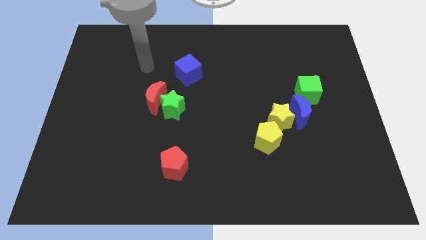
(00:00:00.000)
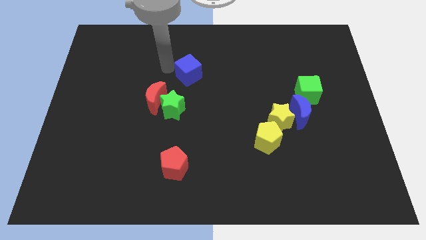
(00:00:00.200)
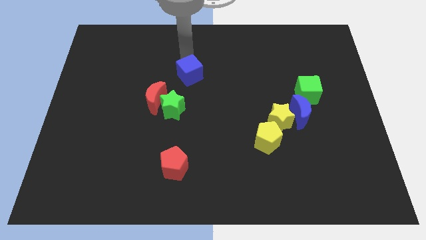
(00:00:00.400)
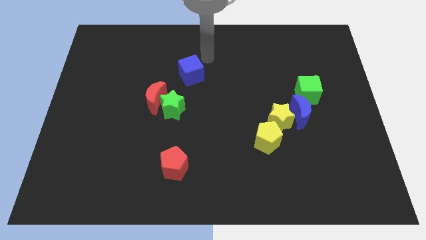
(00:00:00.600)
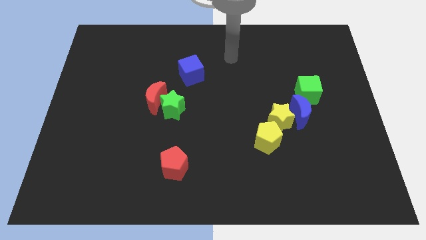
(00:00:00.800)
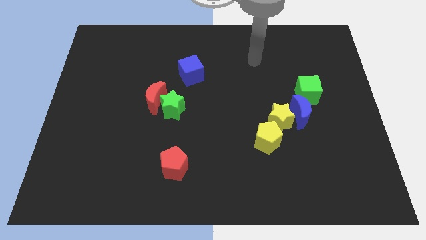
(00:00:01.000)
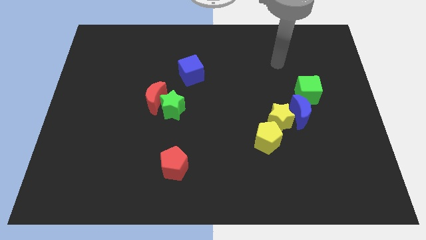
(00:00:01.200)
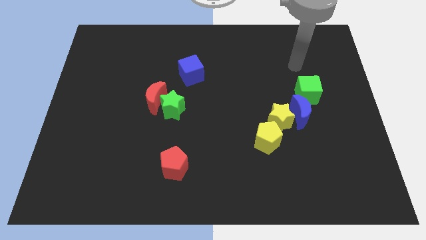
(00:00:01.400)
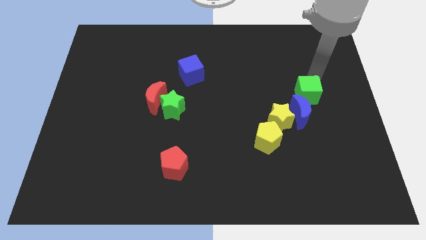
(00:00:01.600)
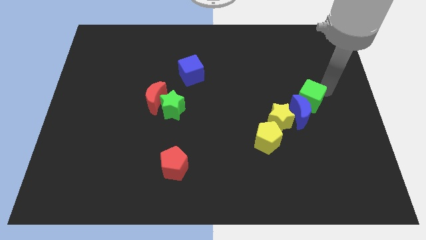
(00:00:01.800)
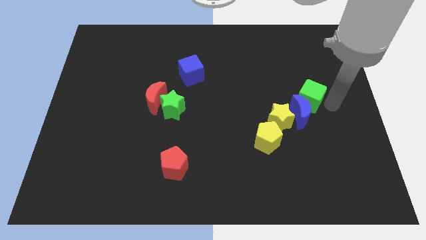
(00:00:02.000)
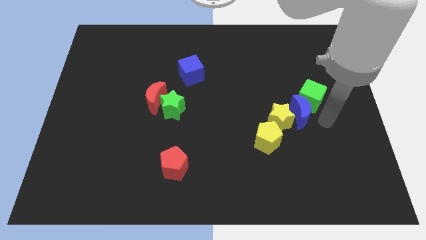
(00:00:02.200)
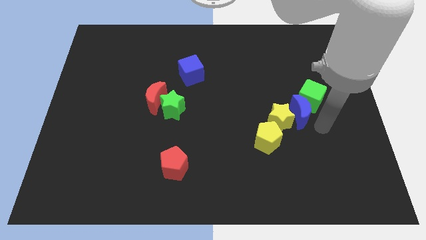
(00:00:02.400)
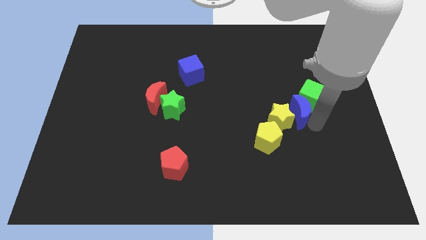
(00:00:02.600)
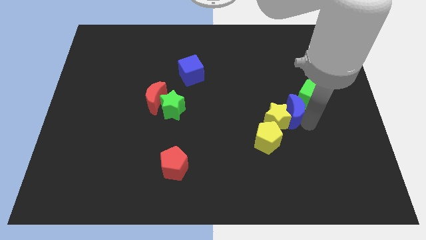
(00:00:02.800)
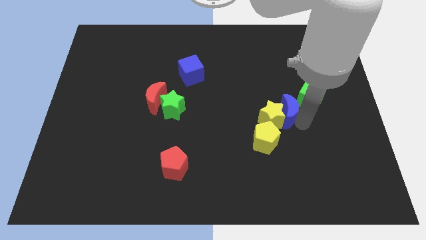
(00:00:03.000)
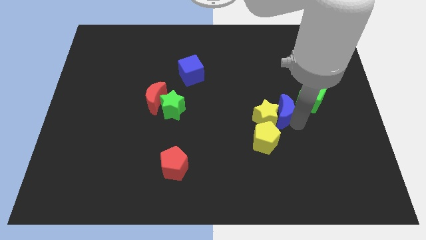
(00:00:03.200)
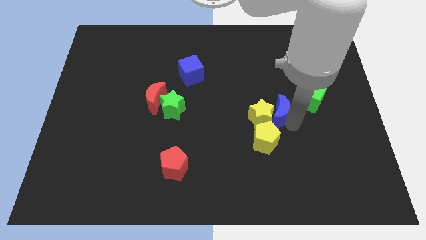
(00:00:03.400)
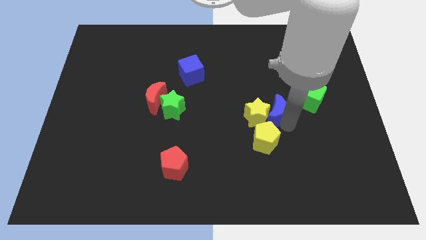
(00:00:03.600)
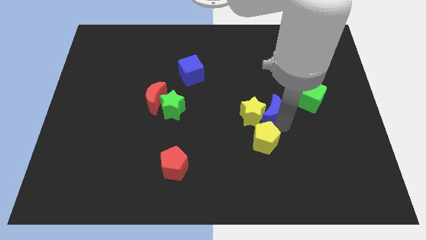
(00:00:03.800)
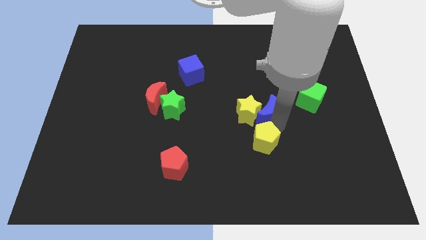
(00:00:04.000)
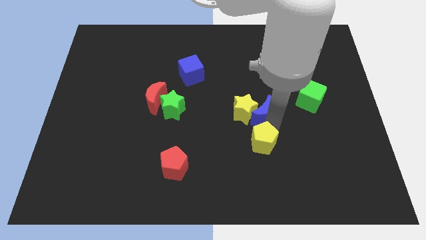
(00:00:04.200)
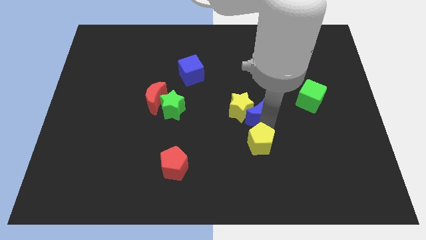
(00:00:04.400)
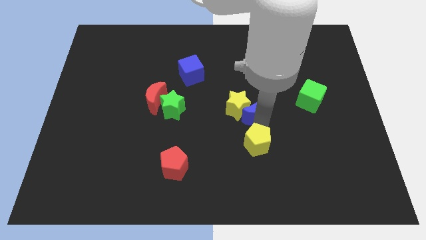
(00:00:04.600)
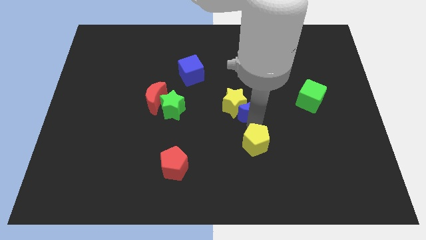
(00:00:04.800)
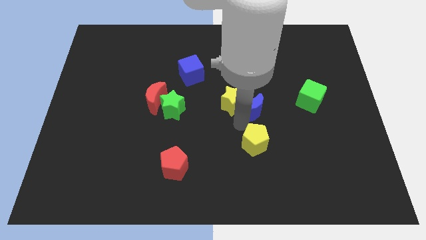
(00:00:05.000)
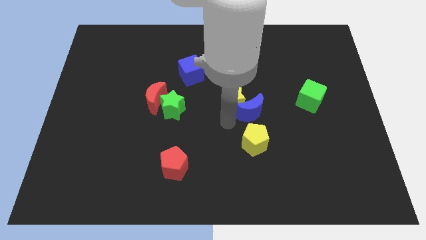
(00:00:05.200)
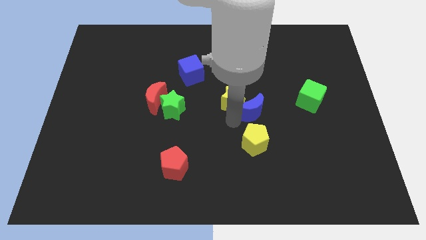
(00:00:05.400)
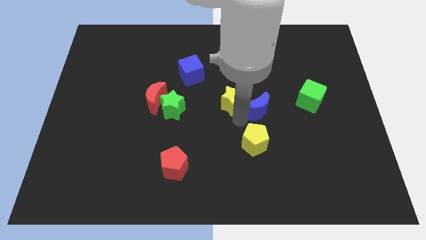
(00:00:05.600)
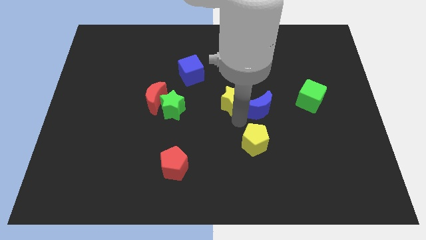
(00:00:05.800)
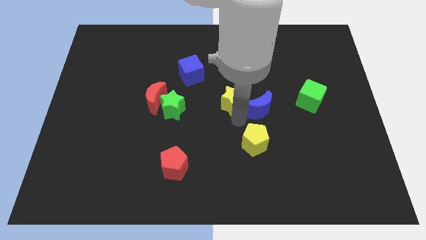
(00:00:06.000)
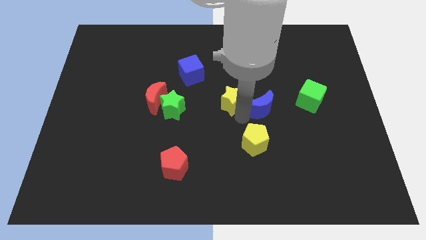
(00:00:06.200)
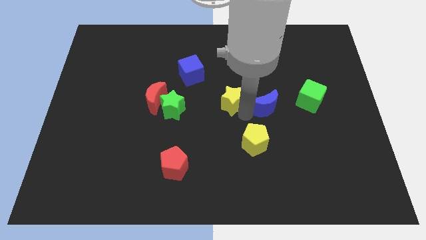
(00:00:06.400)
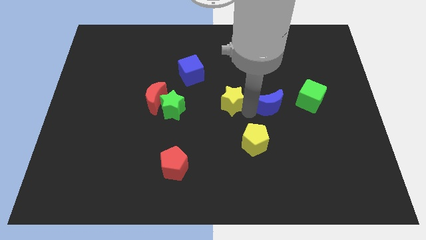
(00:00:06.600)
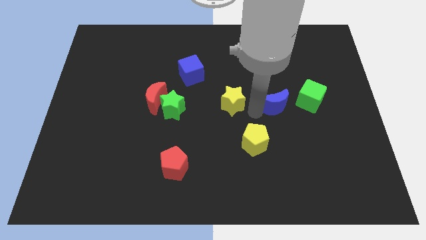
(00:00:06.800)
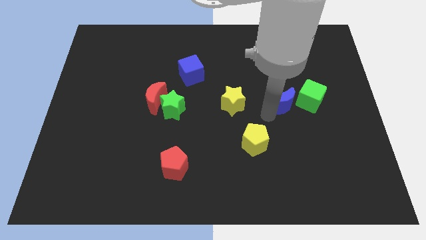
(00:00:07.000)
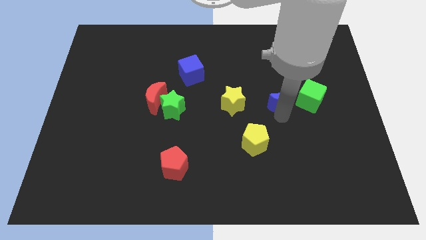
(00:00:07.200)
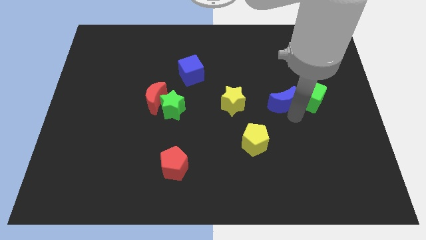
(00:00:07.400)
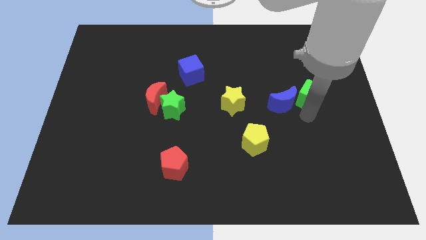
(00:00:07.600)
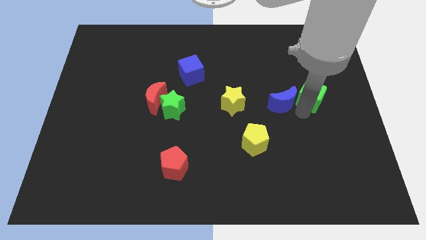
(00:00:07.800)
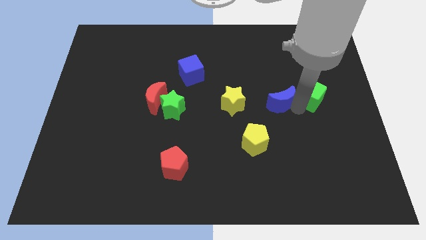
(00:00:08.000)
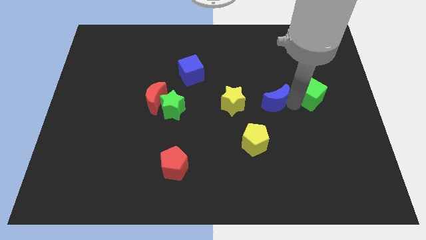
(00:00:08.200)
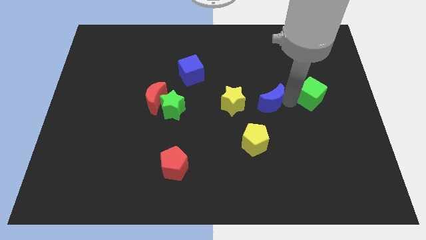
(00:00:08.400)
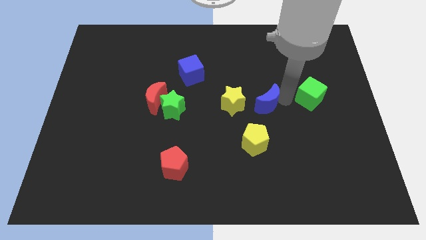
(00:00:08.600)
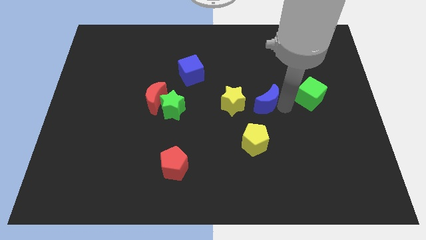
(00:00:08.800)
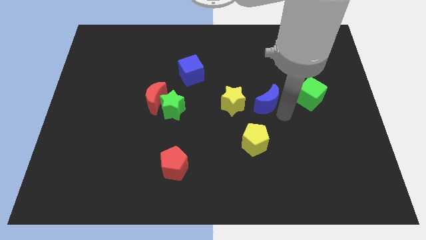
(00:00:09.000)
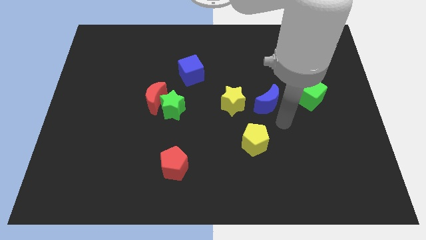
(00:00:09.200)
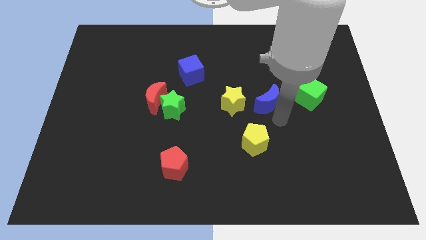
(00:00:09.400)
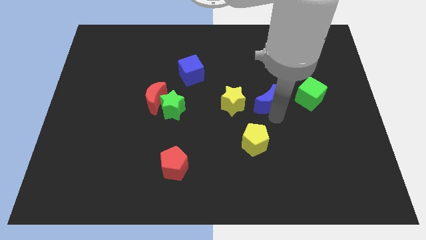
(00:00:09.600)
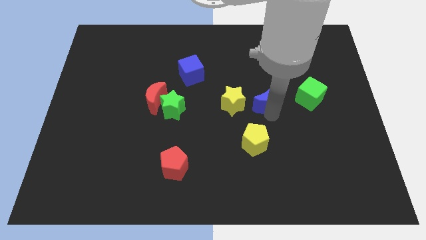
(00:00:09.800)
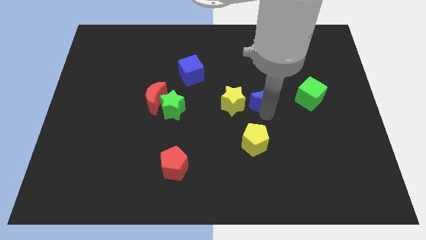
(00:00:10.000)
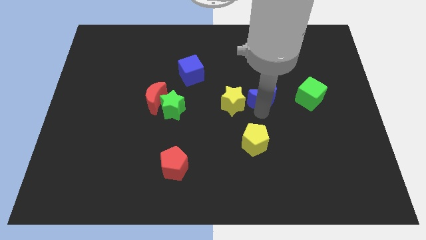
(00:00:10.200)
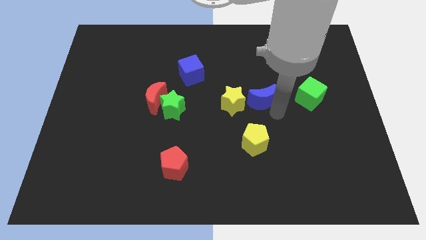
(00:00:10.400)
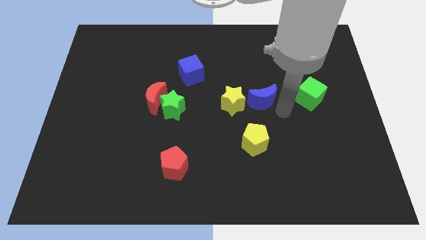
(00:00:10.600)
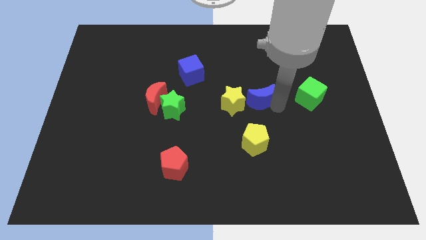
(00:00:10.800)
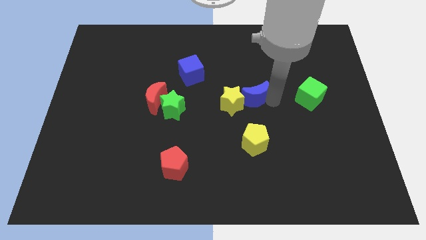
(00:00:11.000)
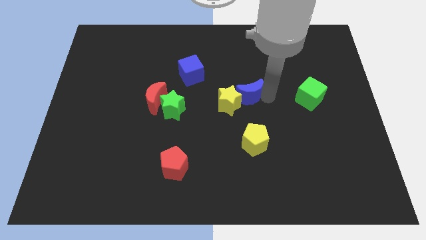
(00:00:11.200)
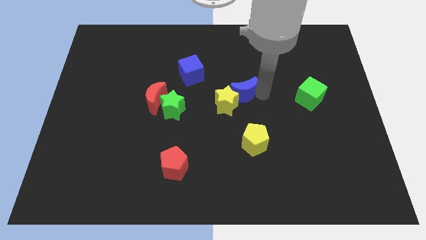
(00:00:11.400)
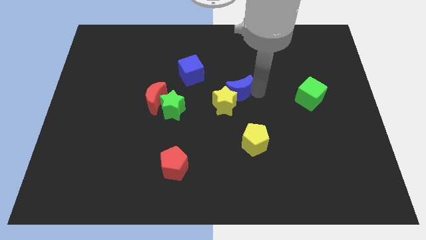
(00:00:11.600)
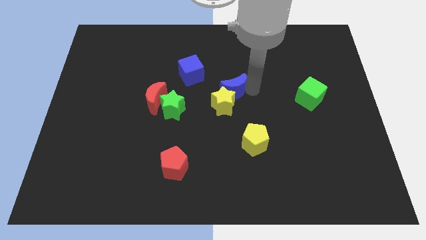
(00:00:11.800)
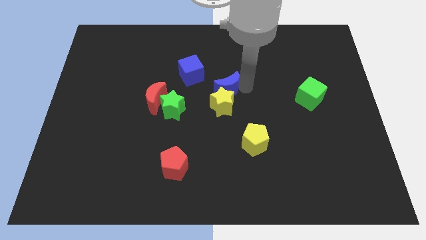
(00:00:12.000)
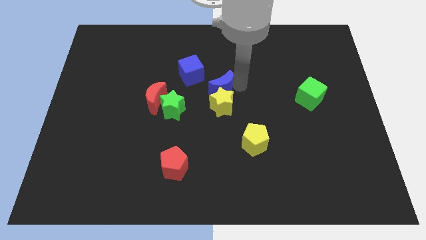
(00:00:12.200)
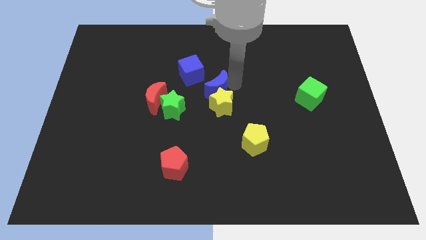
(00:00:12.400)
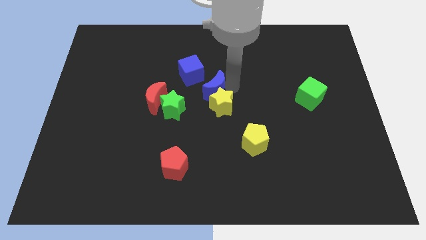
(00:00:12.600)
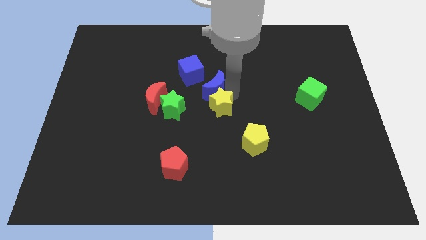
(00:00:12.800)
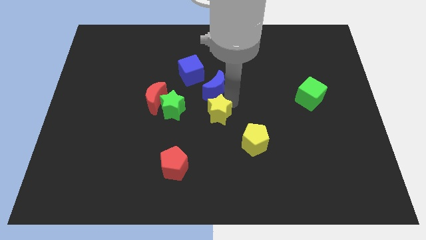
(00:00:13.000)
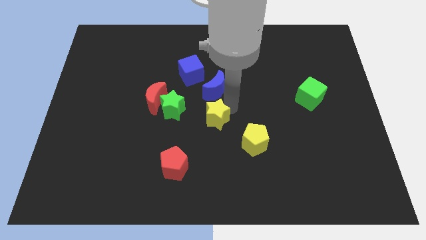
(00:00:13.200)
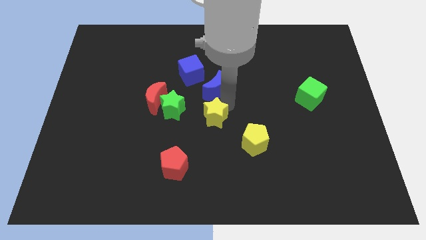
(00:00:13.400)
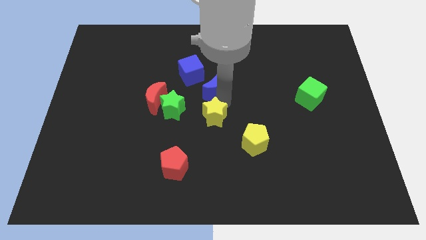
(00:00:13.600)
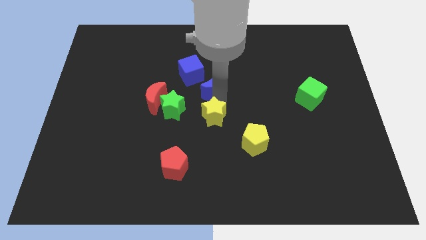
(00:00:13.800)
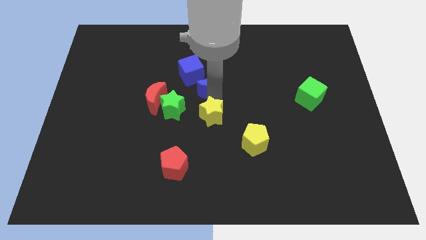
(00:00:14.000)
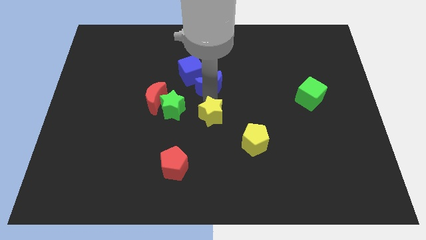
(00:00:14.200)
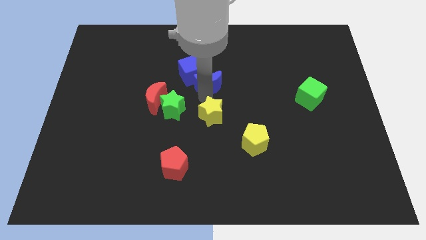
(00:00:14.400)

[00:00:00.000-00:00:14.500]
push the blue moon to the blue cube
